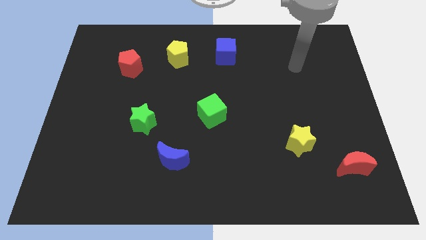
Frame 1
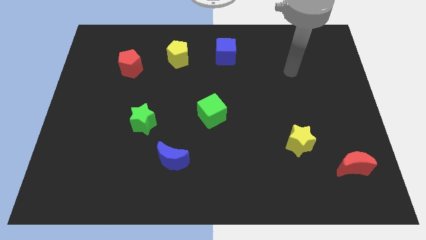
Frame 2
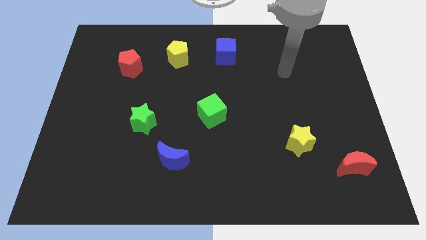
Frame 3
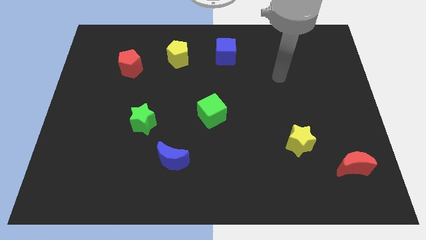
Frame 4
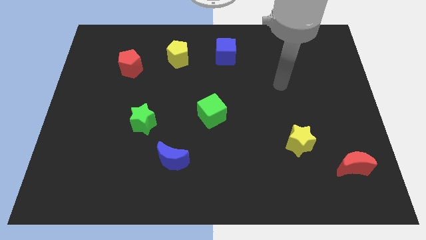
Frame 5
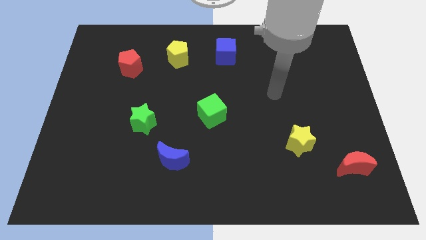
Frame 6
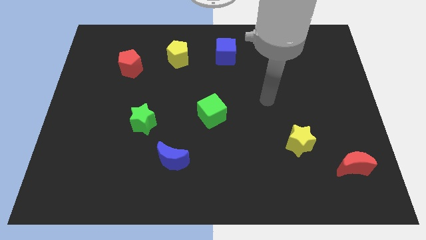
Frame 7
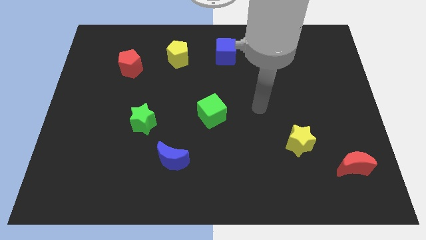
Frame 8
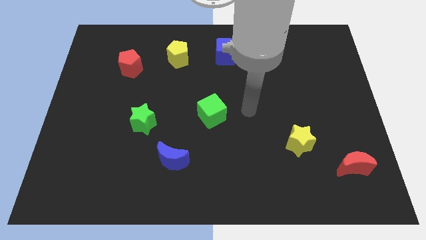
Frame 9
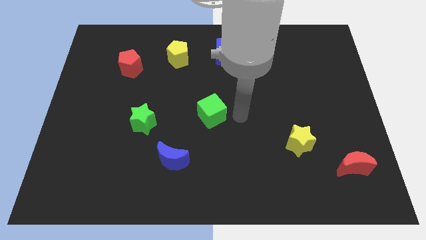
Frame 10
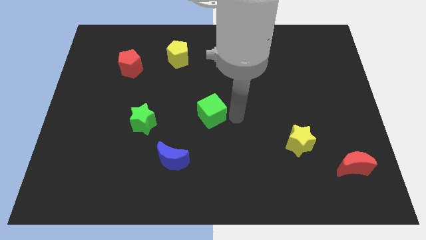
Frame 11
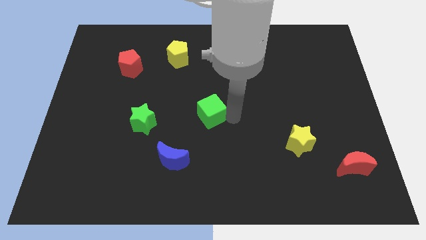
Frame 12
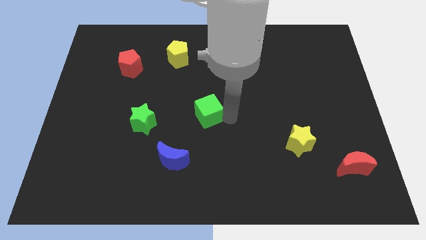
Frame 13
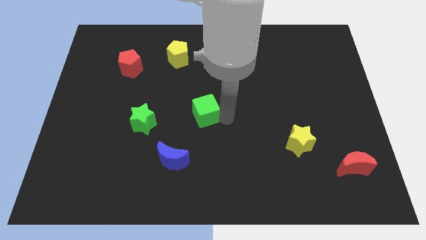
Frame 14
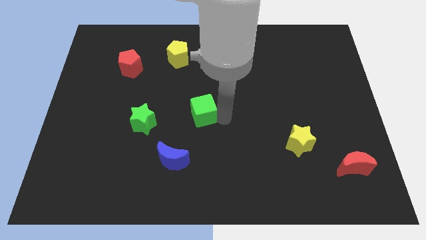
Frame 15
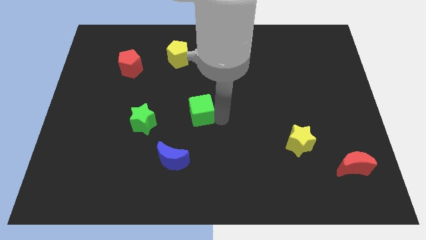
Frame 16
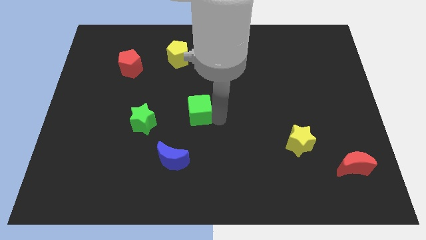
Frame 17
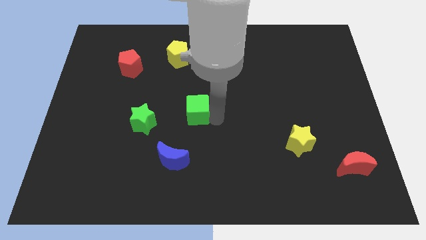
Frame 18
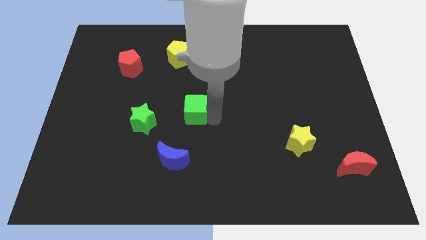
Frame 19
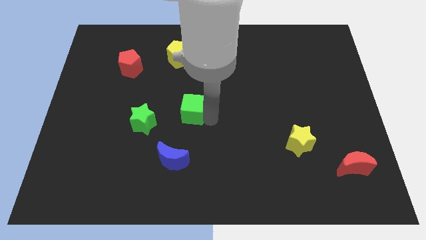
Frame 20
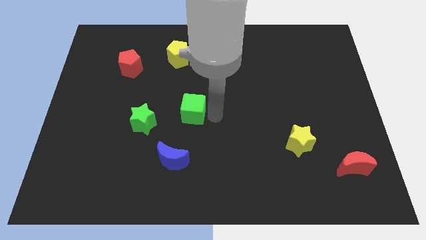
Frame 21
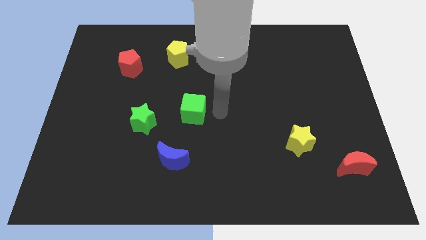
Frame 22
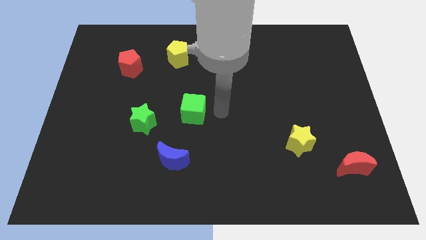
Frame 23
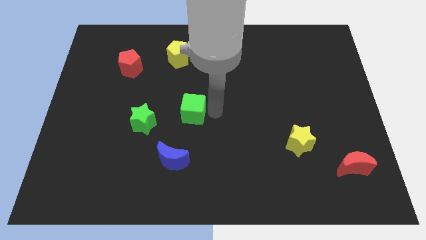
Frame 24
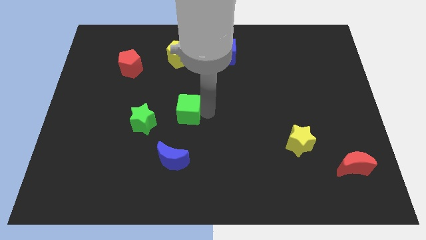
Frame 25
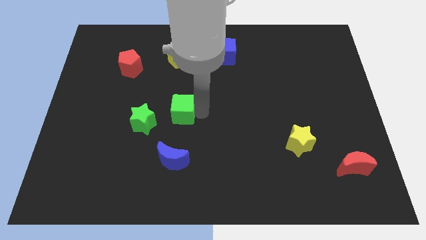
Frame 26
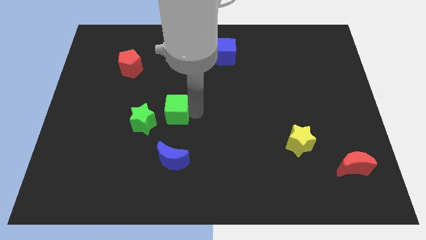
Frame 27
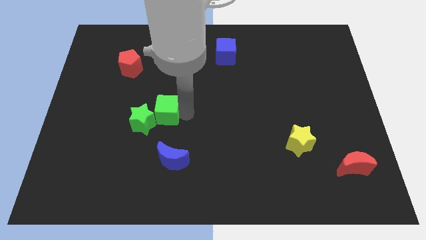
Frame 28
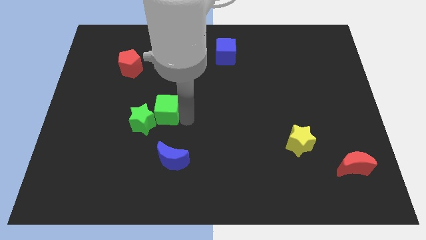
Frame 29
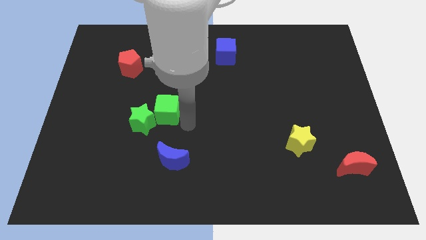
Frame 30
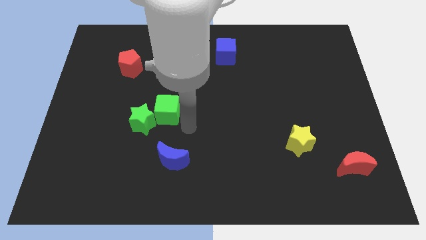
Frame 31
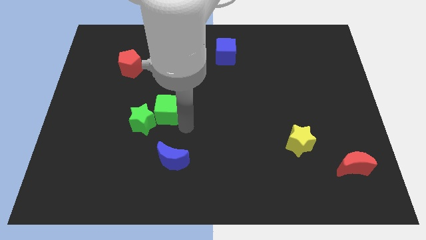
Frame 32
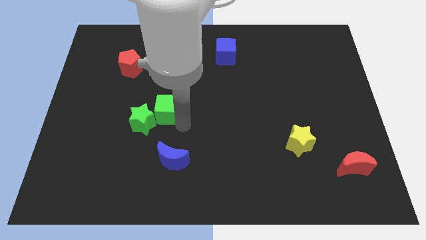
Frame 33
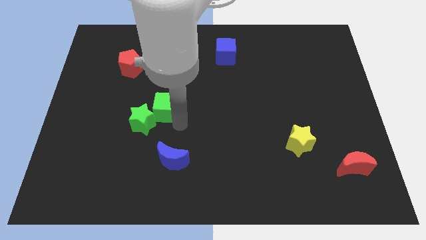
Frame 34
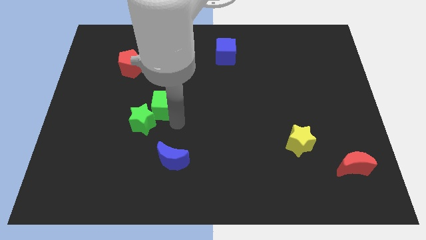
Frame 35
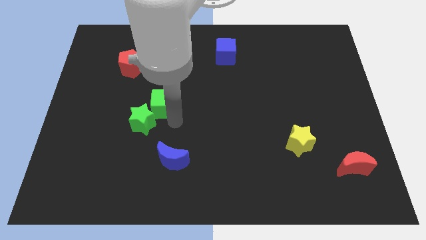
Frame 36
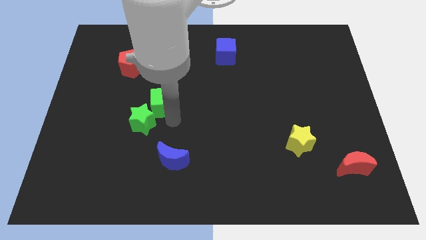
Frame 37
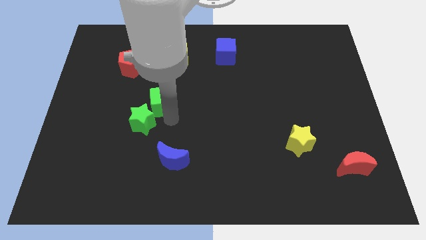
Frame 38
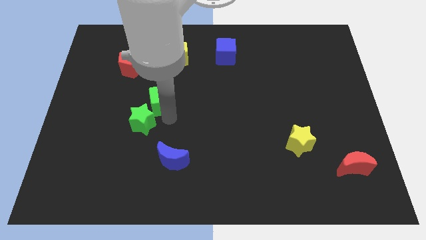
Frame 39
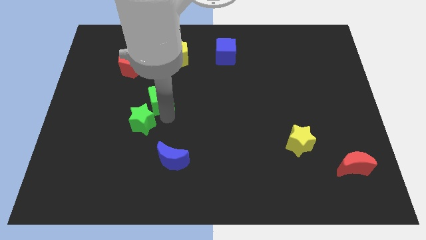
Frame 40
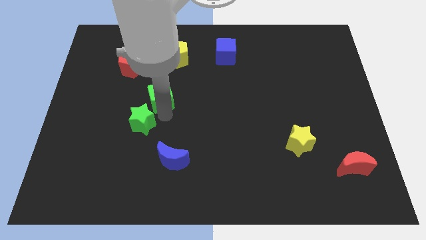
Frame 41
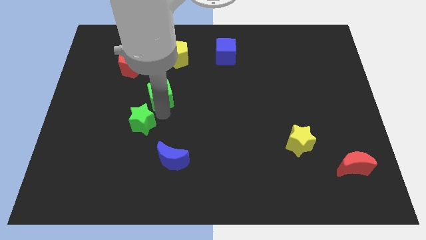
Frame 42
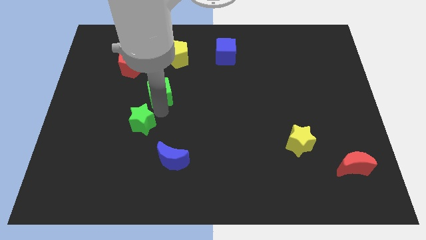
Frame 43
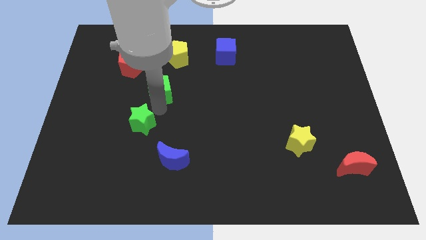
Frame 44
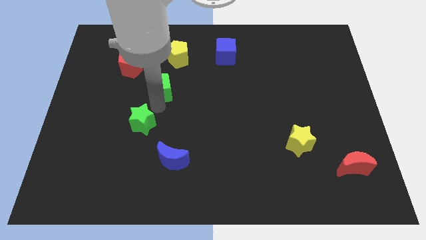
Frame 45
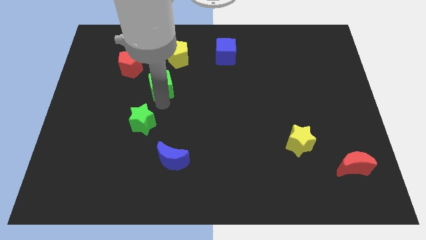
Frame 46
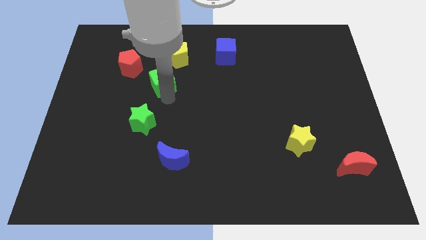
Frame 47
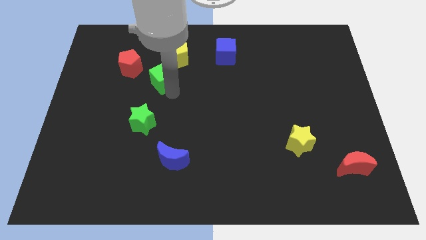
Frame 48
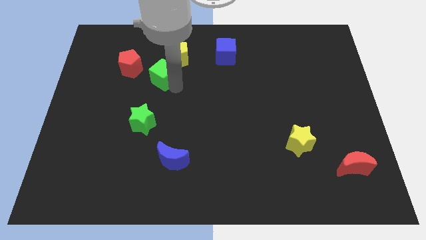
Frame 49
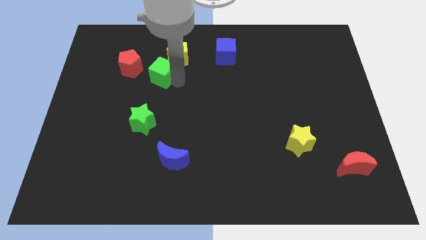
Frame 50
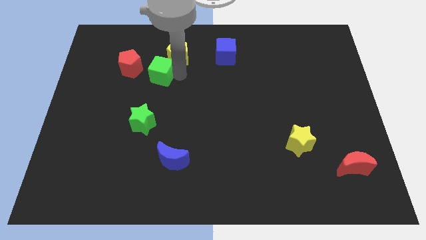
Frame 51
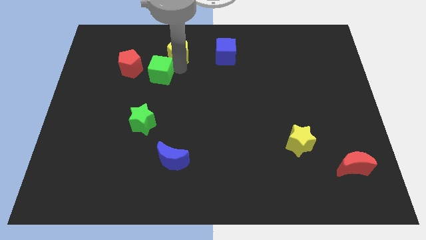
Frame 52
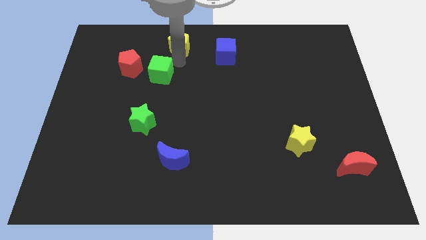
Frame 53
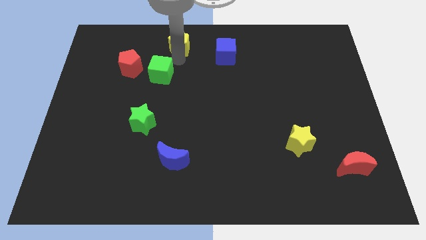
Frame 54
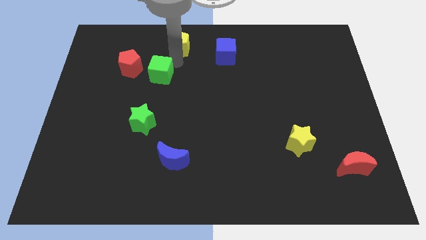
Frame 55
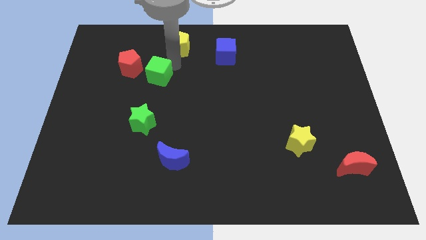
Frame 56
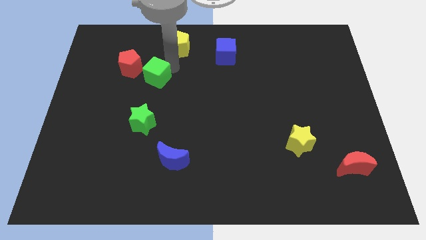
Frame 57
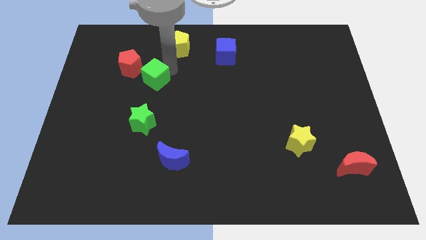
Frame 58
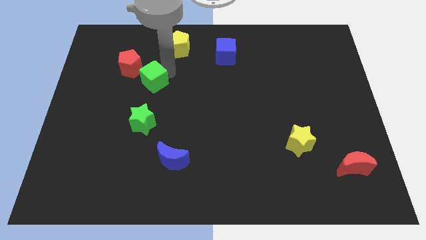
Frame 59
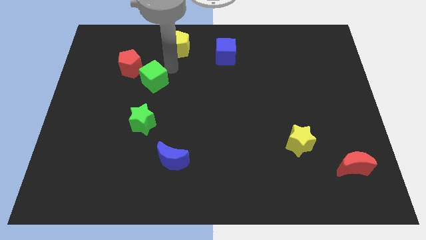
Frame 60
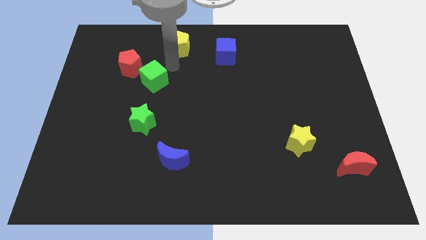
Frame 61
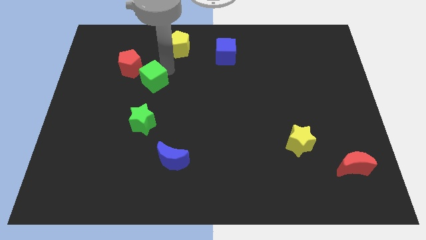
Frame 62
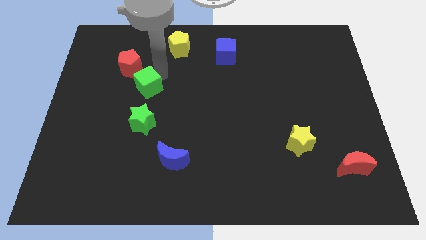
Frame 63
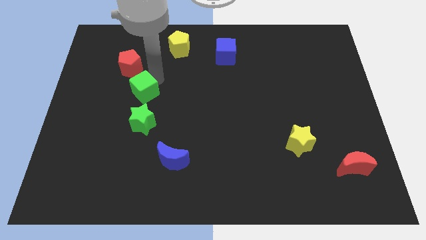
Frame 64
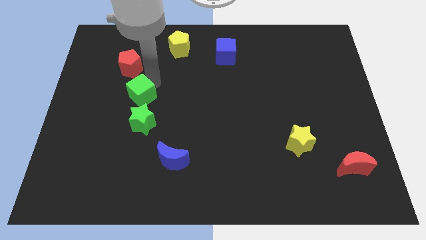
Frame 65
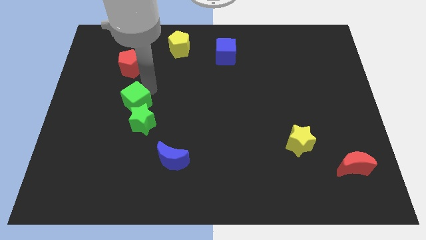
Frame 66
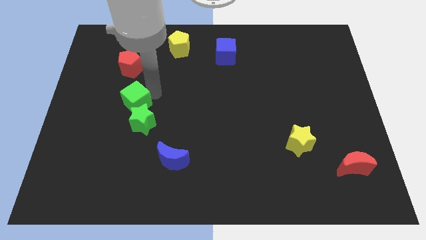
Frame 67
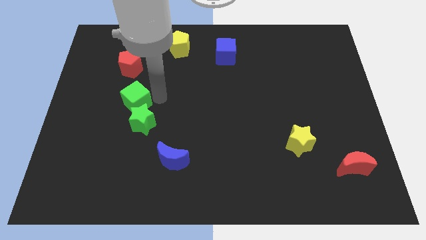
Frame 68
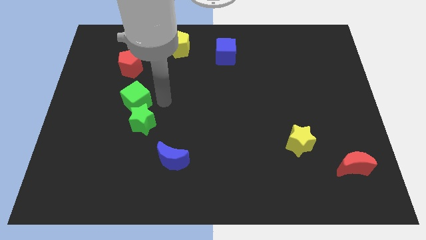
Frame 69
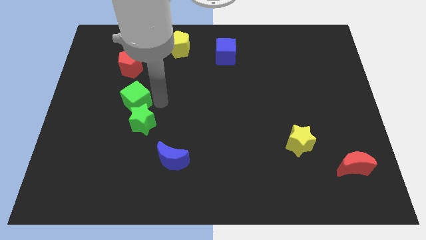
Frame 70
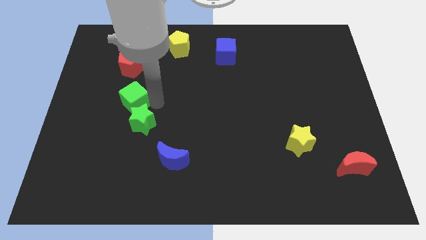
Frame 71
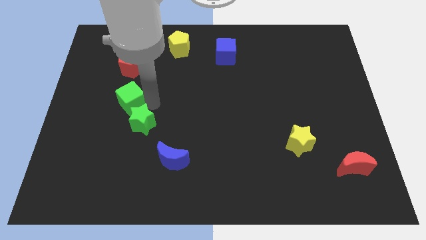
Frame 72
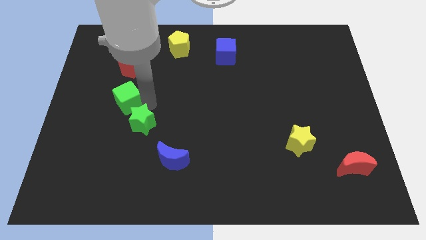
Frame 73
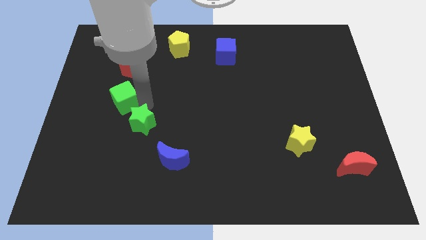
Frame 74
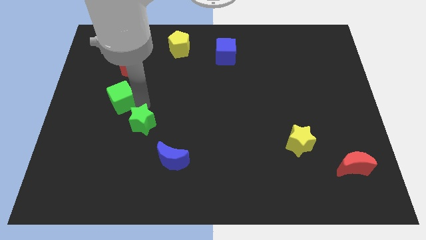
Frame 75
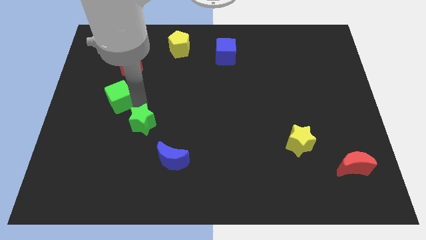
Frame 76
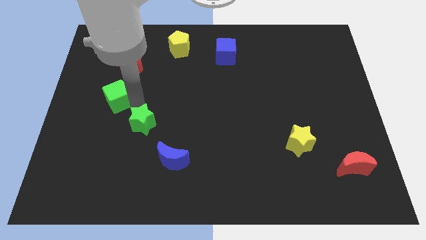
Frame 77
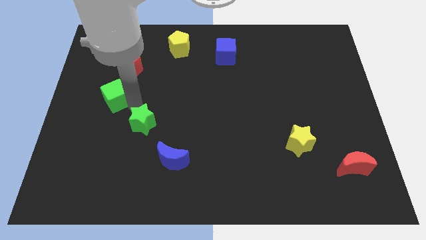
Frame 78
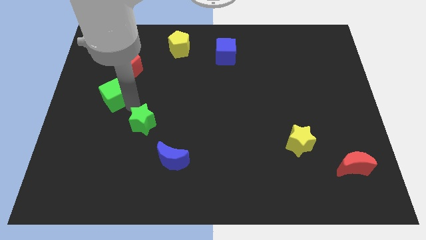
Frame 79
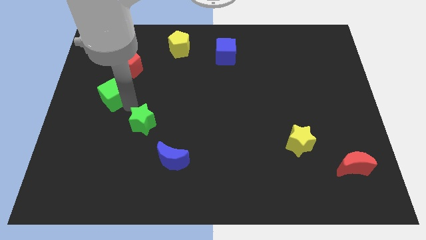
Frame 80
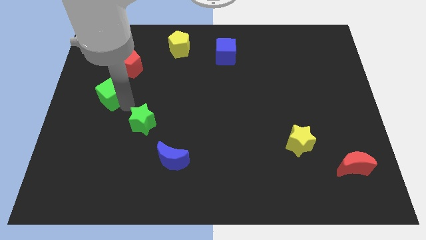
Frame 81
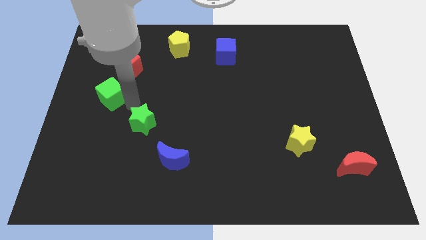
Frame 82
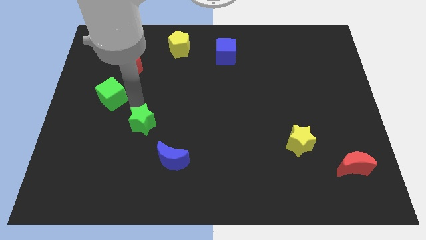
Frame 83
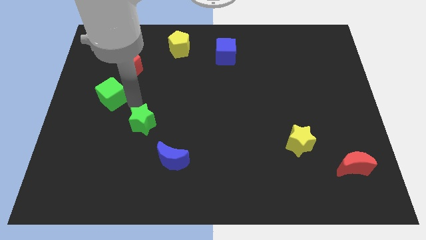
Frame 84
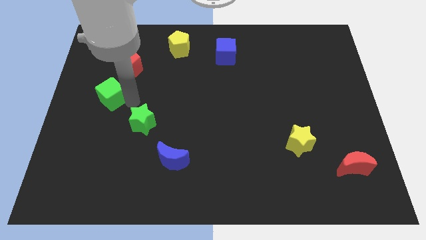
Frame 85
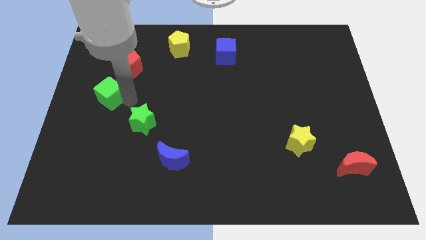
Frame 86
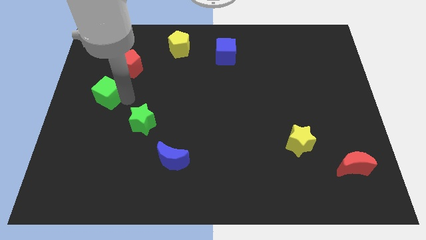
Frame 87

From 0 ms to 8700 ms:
put the green cube to the center left
